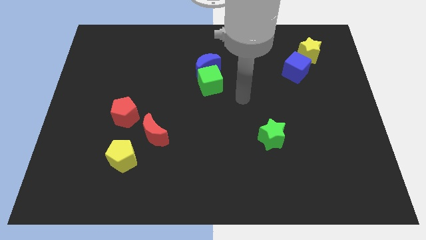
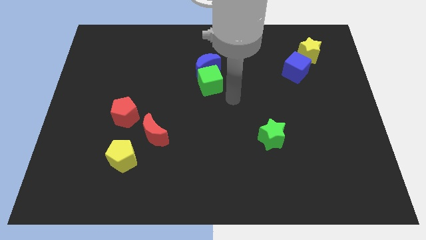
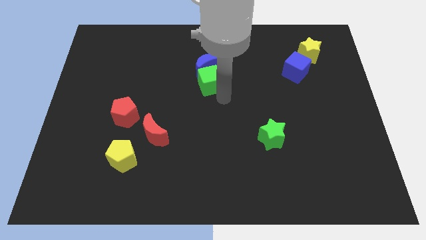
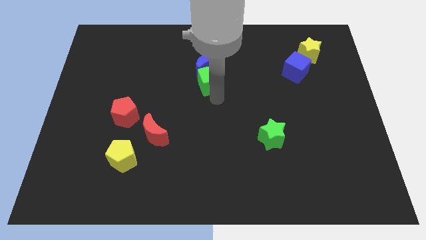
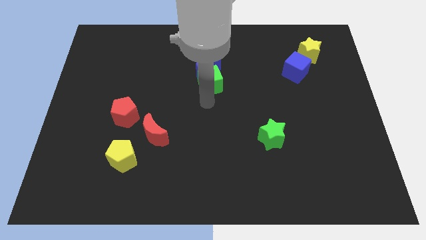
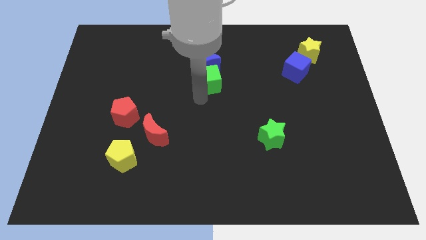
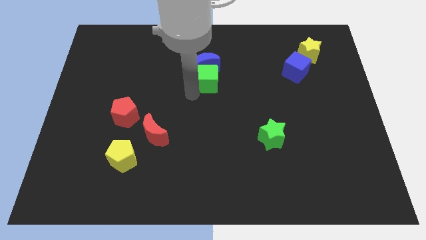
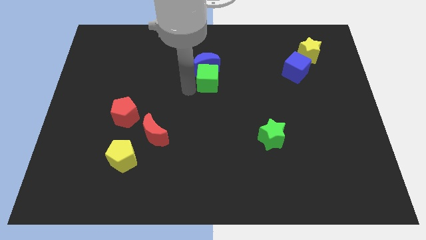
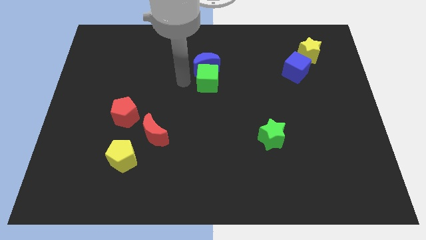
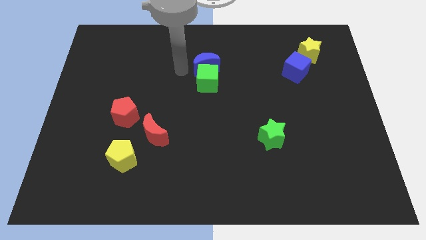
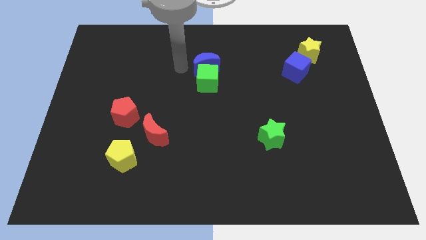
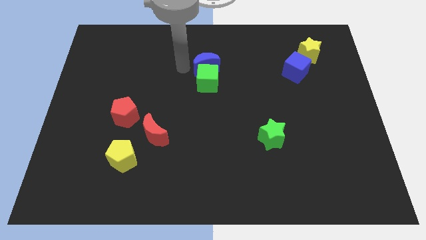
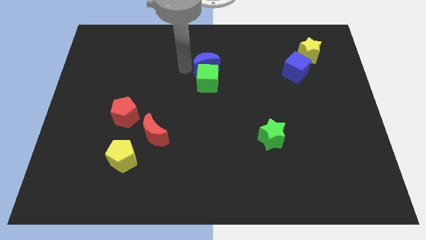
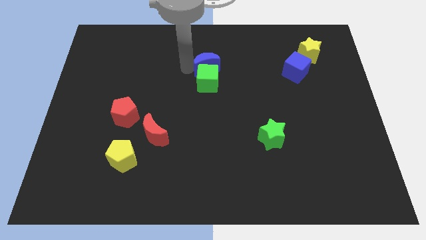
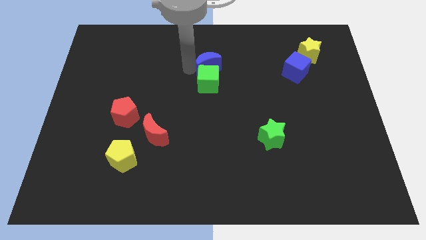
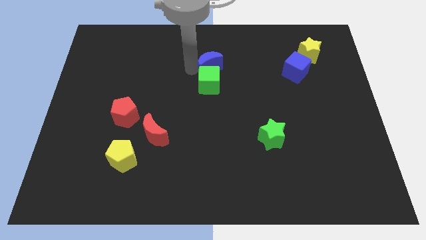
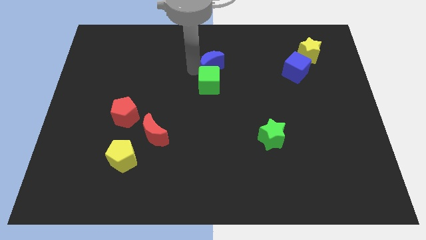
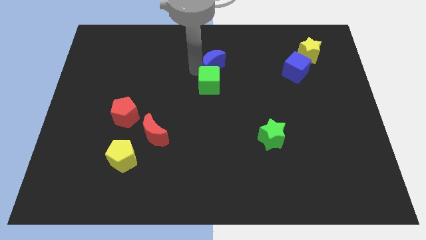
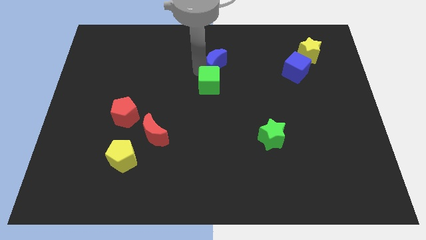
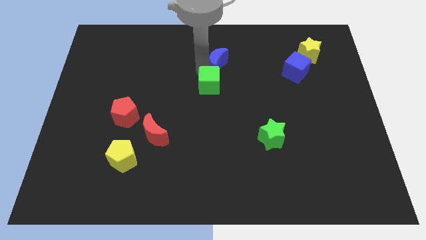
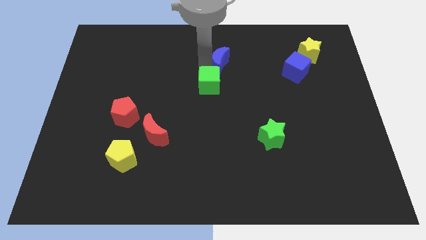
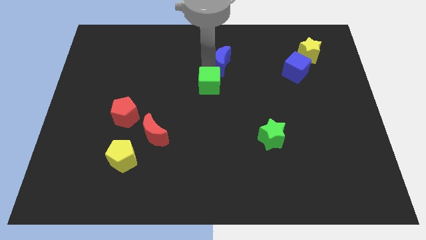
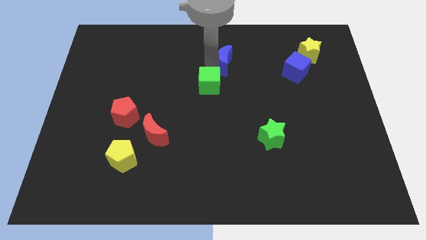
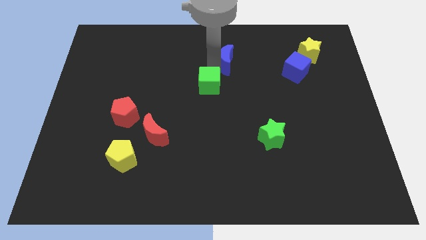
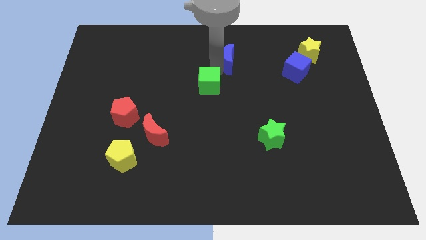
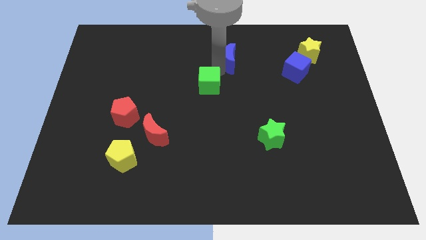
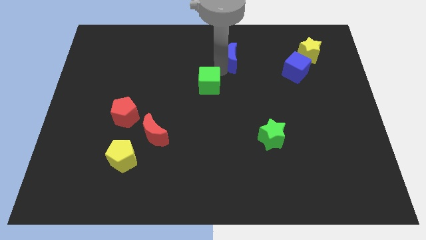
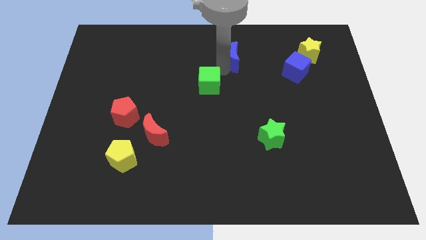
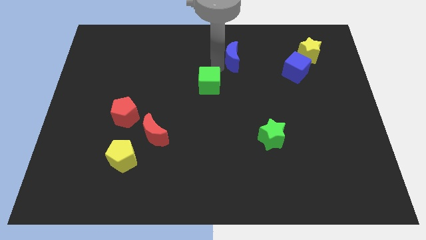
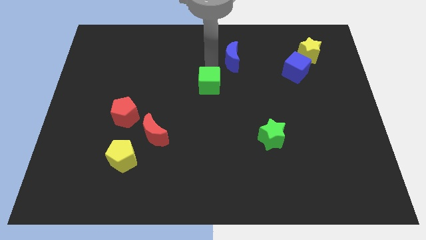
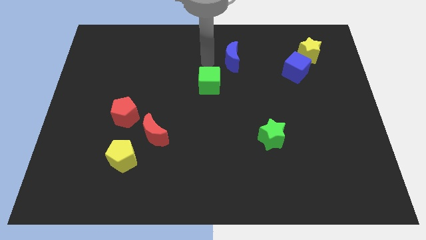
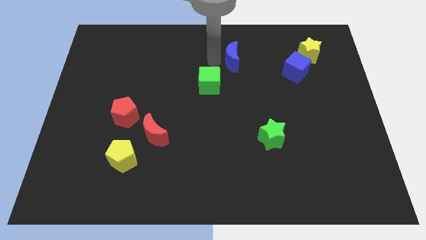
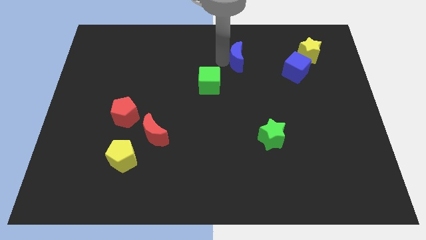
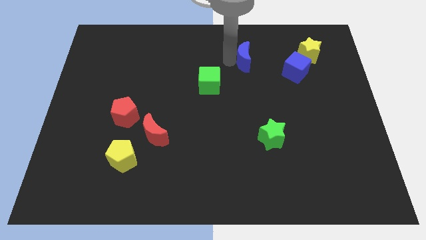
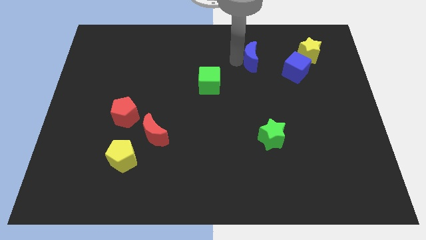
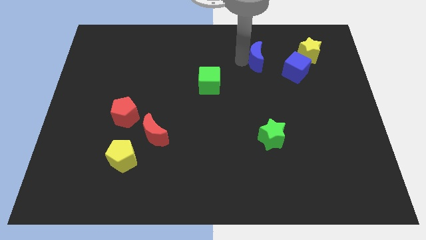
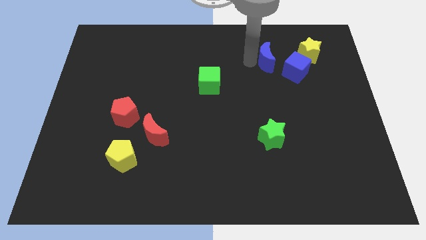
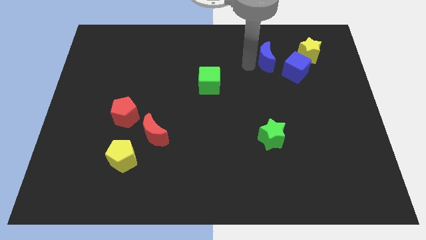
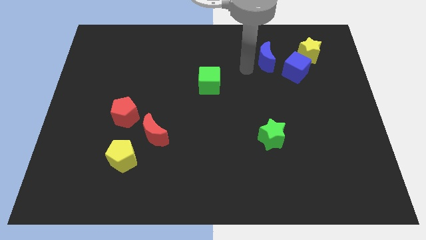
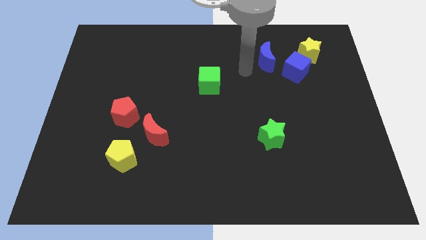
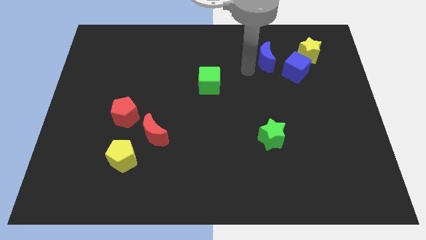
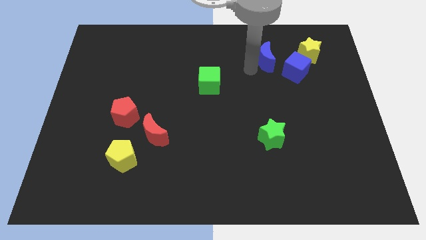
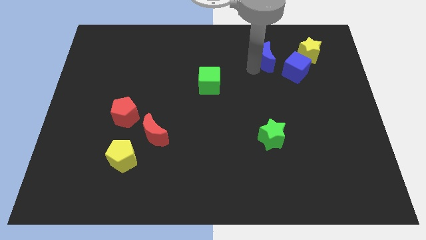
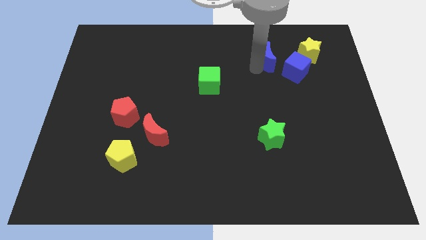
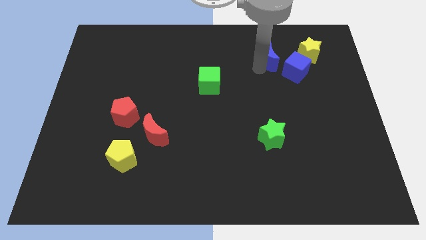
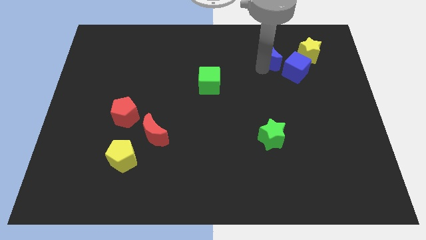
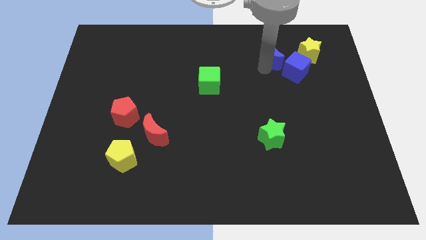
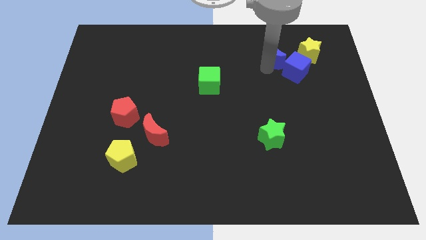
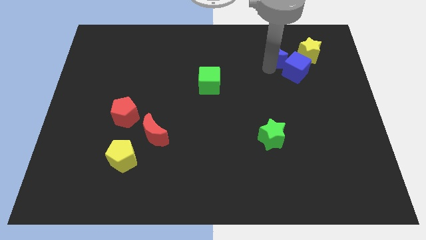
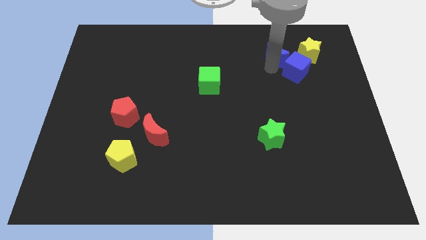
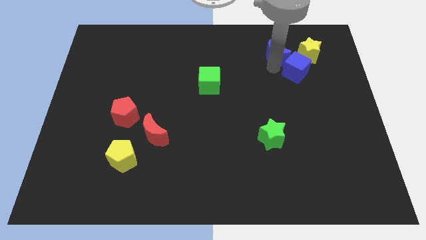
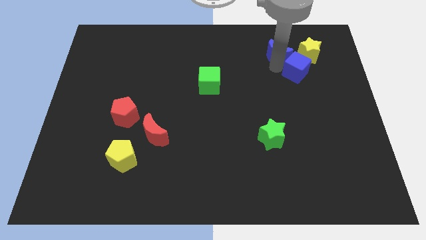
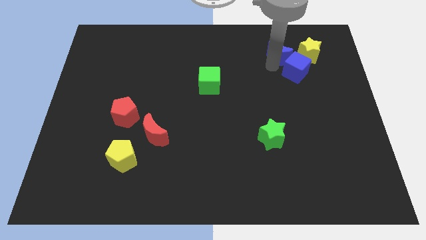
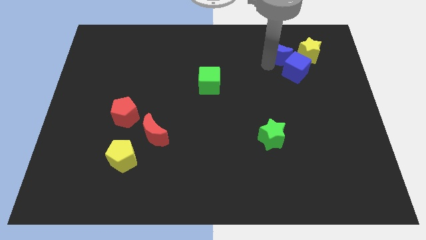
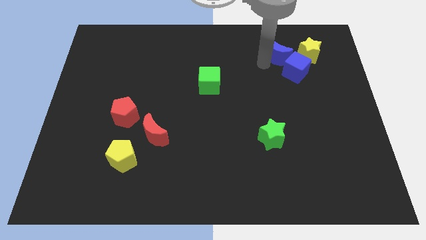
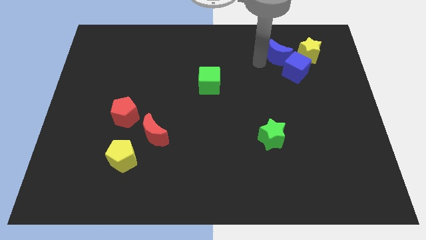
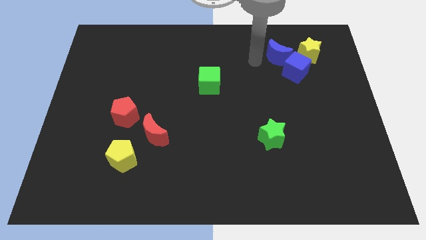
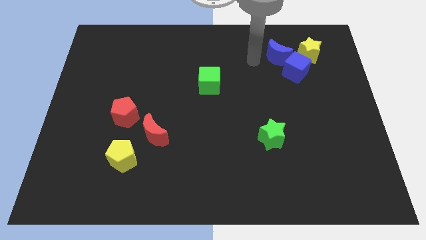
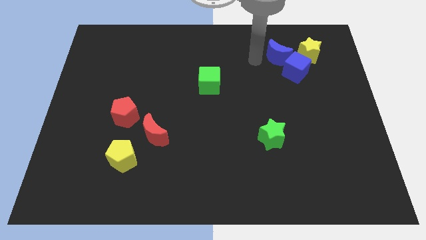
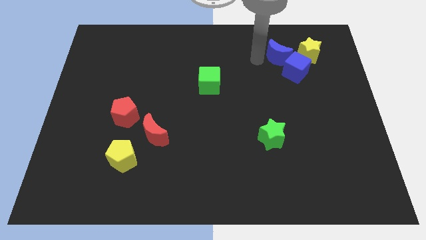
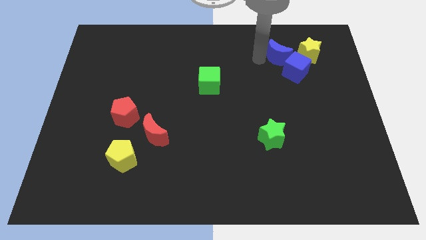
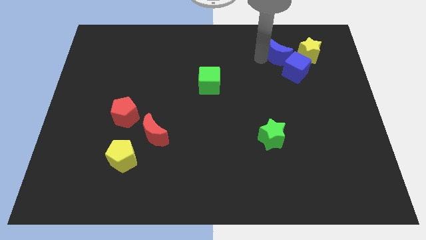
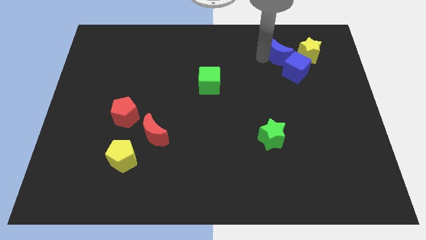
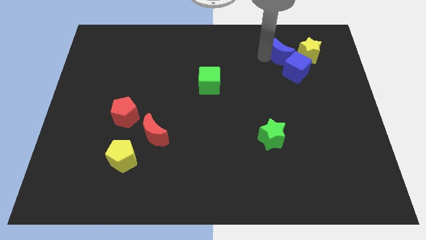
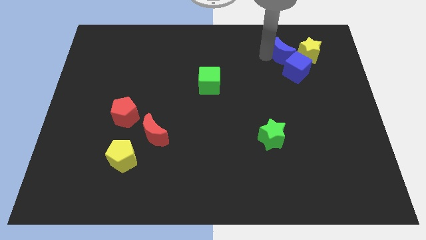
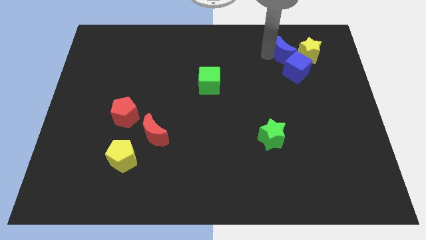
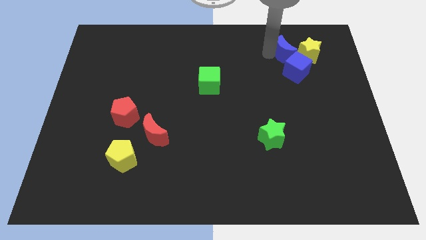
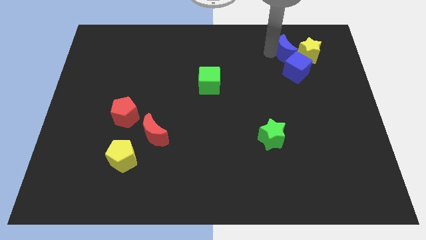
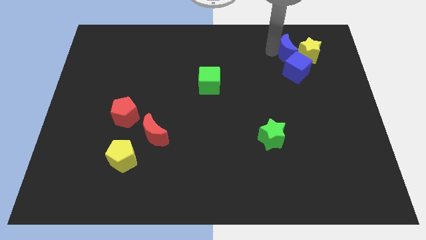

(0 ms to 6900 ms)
slide the blue moon towards the yellow star

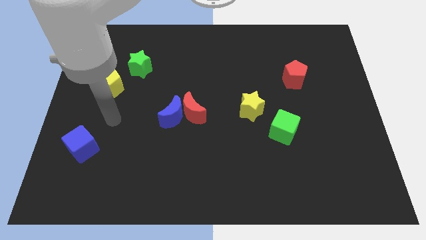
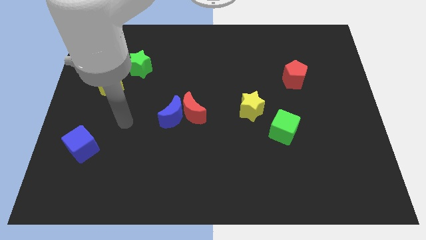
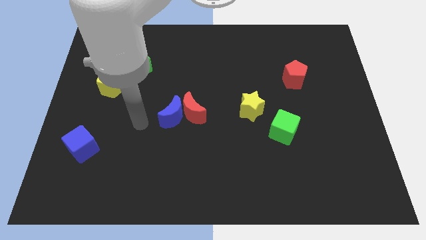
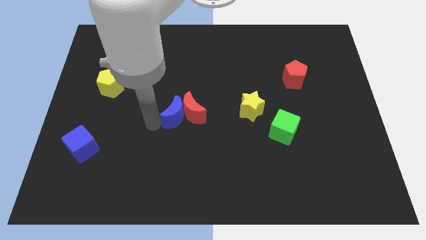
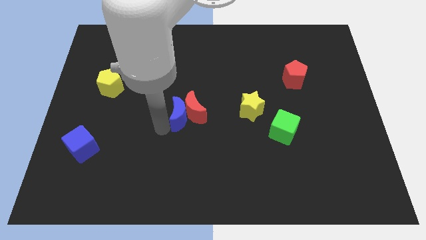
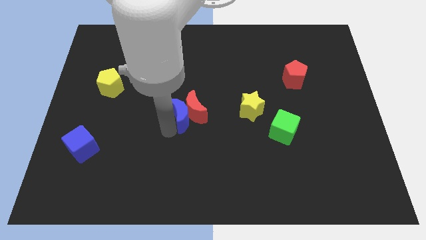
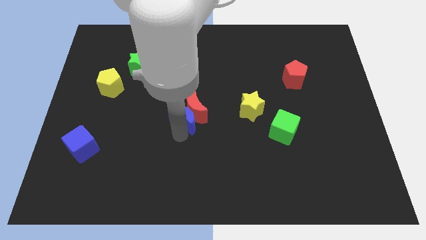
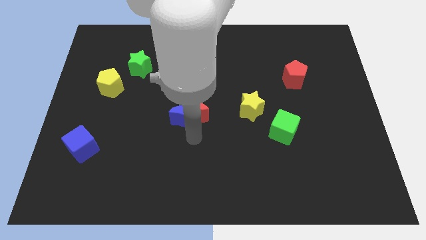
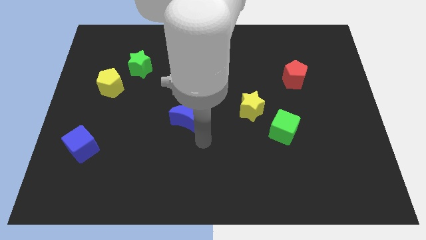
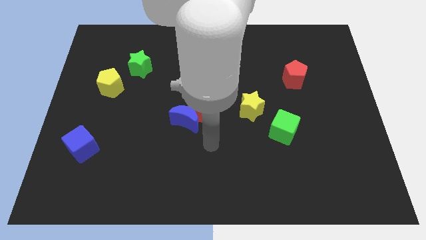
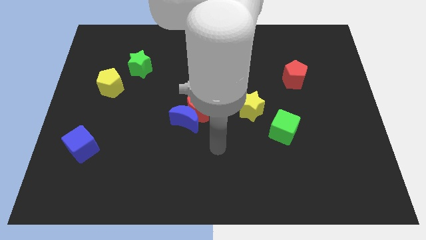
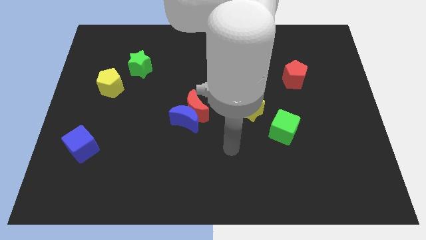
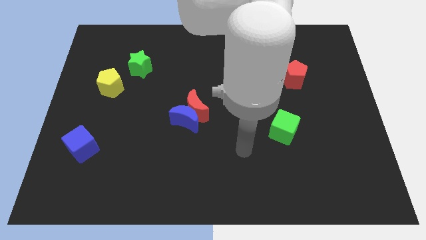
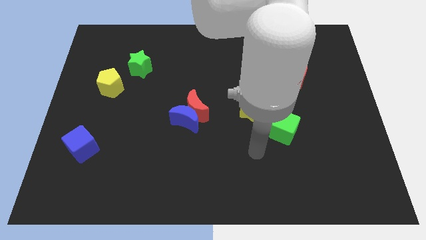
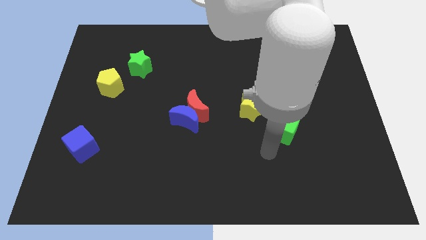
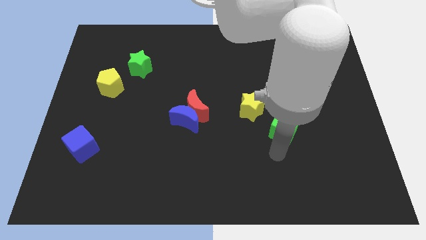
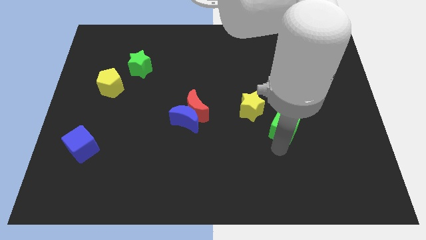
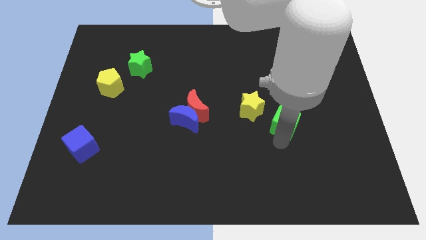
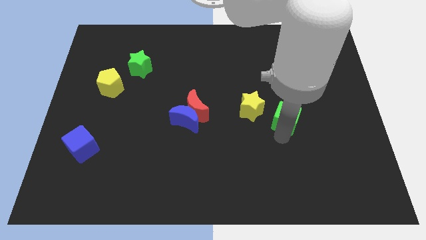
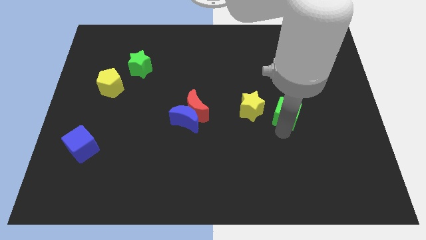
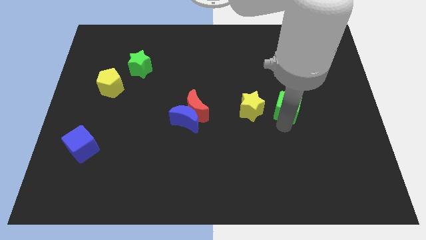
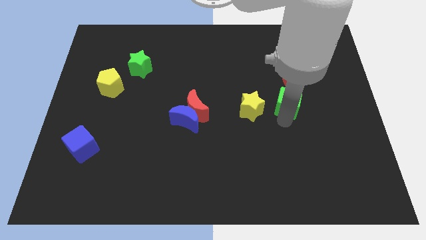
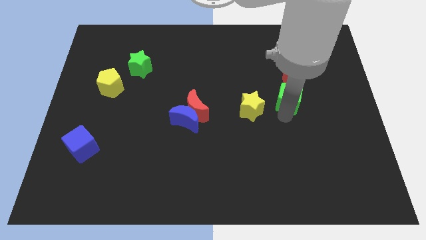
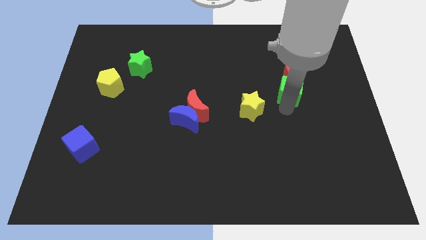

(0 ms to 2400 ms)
put the green cube close to the red pentagon
